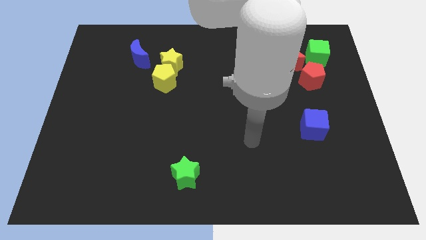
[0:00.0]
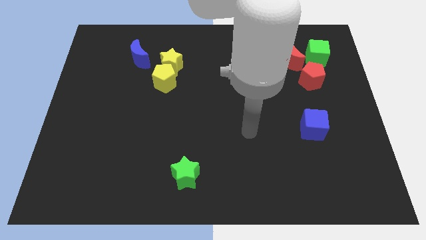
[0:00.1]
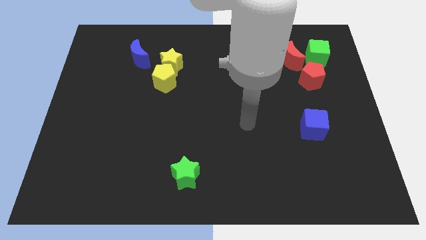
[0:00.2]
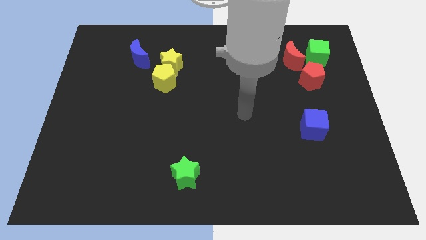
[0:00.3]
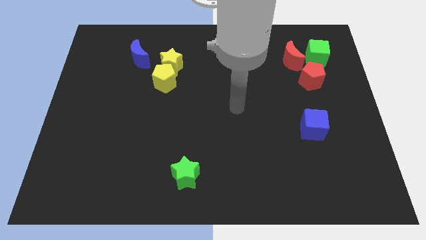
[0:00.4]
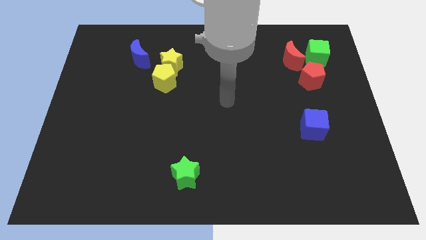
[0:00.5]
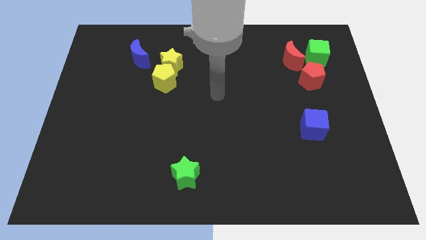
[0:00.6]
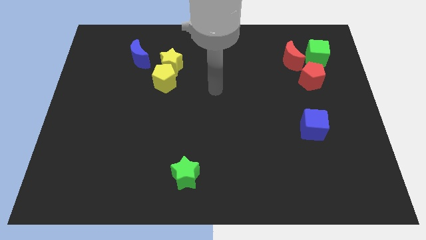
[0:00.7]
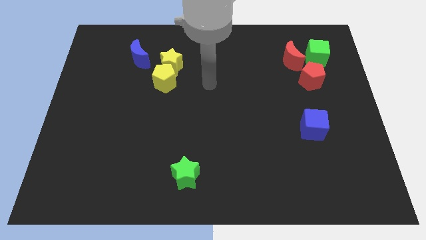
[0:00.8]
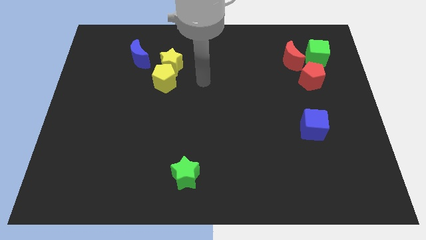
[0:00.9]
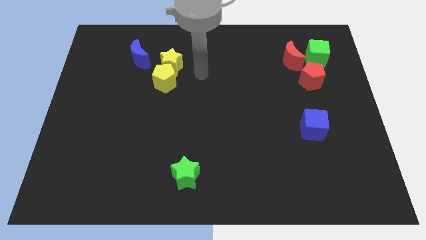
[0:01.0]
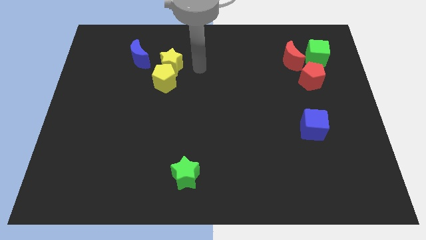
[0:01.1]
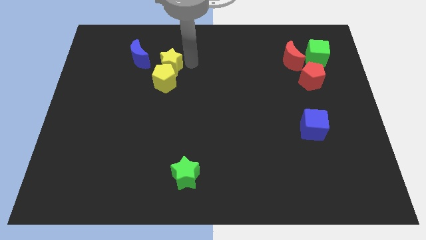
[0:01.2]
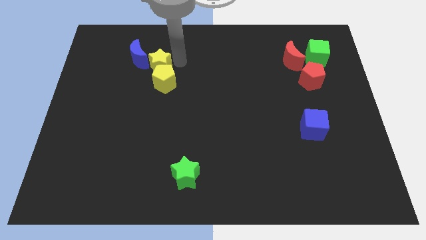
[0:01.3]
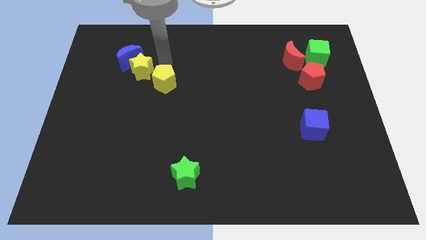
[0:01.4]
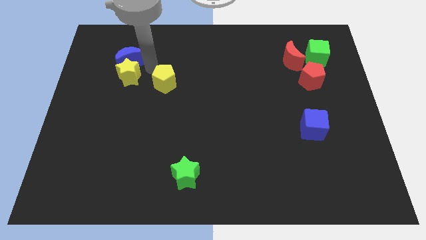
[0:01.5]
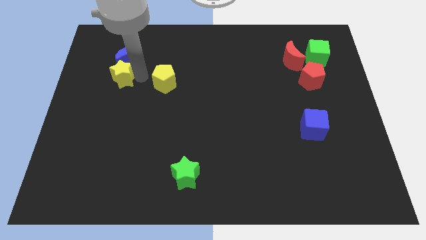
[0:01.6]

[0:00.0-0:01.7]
pull the yellow pentagon apart from the yellow star

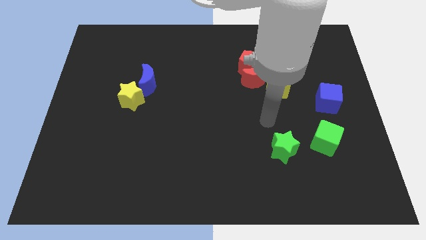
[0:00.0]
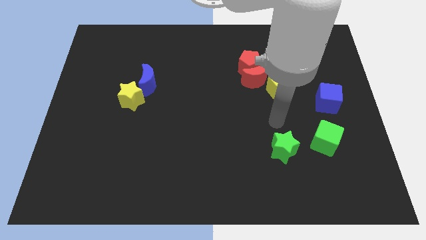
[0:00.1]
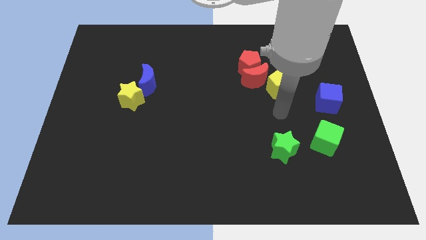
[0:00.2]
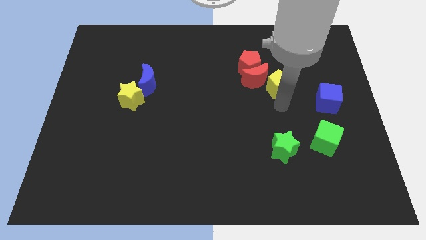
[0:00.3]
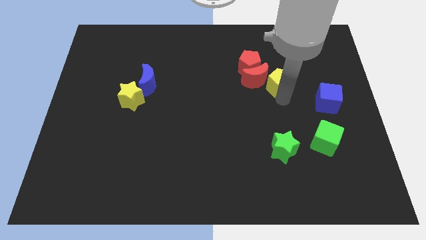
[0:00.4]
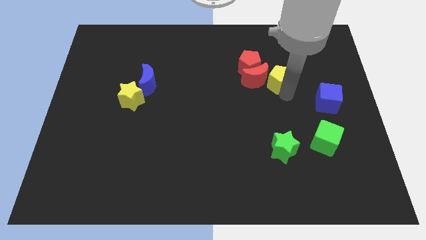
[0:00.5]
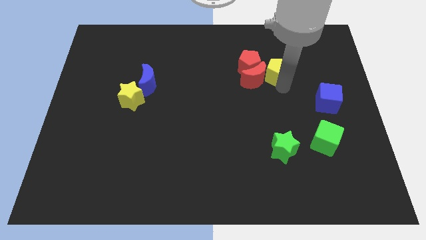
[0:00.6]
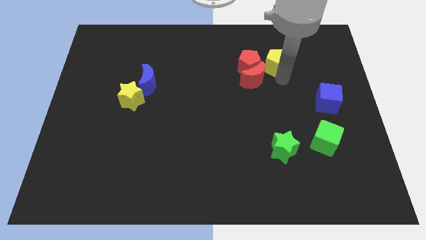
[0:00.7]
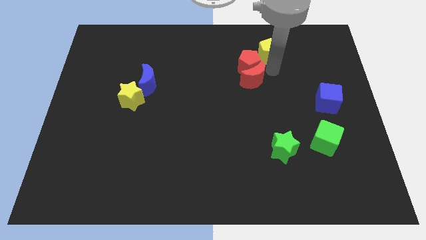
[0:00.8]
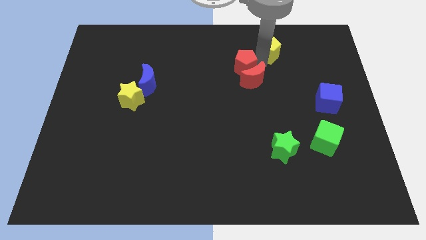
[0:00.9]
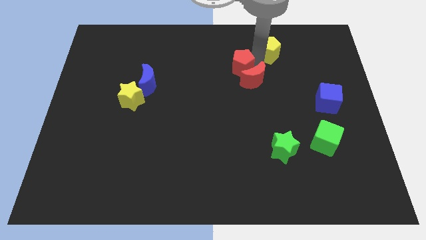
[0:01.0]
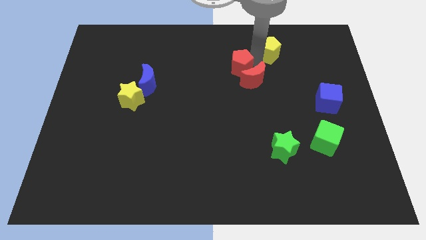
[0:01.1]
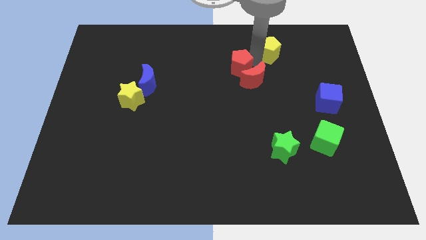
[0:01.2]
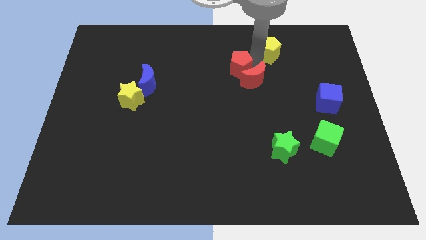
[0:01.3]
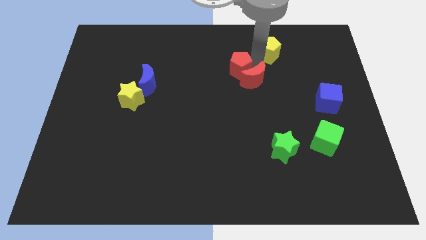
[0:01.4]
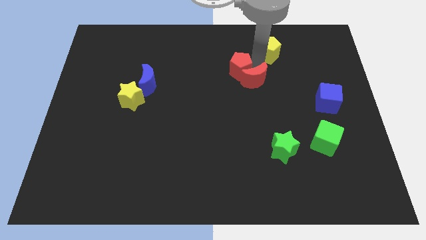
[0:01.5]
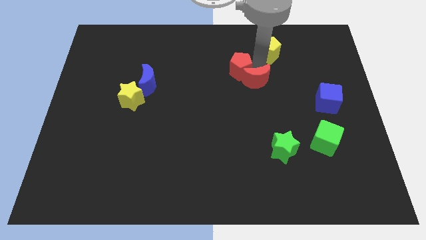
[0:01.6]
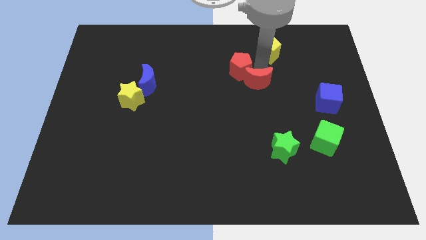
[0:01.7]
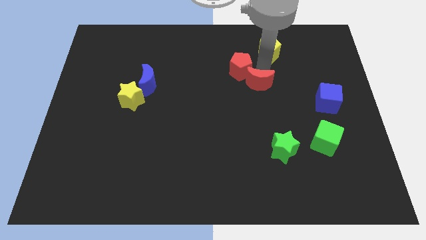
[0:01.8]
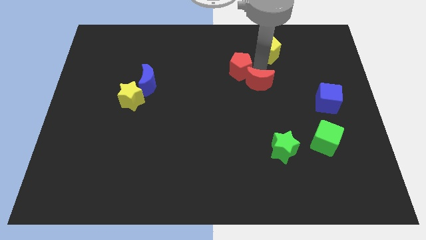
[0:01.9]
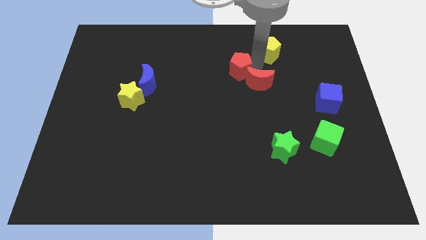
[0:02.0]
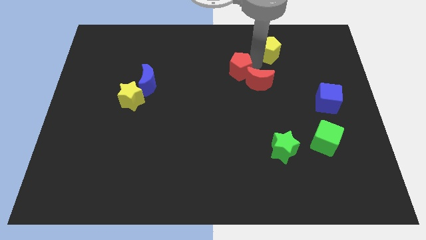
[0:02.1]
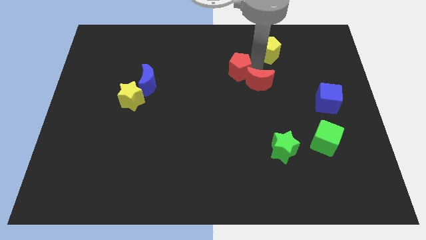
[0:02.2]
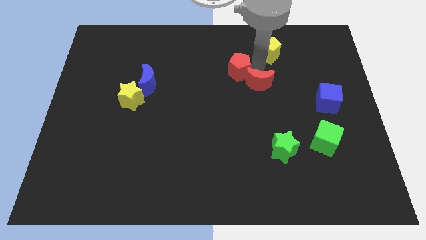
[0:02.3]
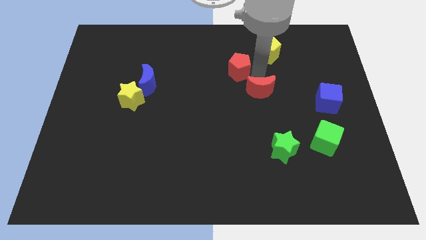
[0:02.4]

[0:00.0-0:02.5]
separate the red moon from the red pentagon and yellow pentagon

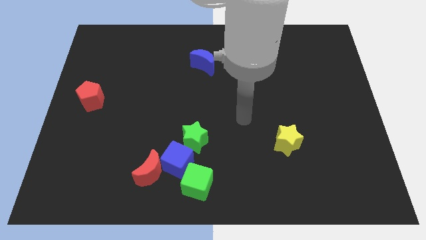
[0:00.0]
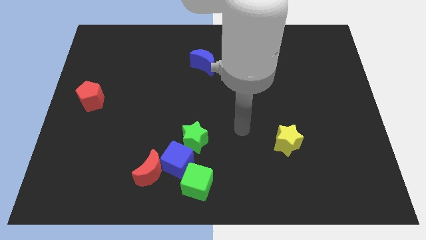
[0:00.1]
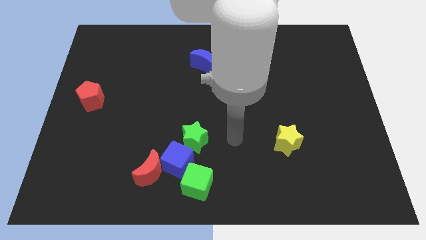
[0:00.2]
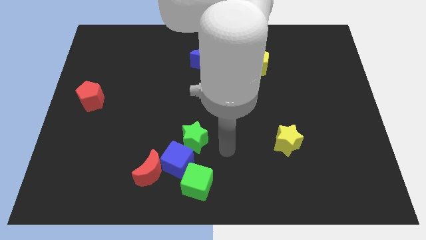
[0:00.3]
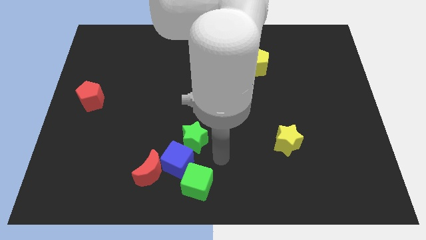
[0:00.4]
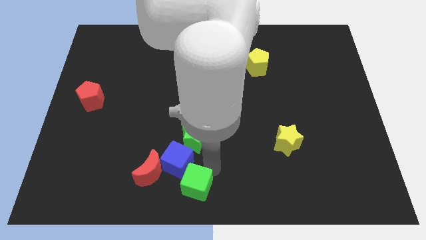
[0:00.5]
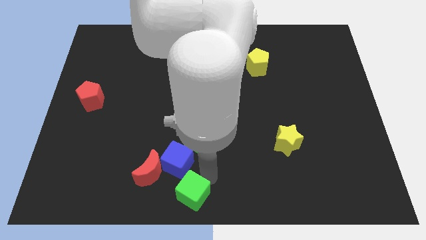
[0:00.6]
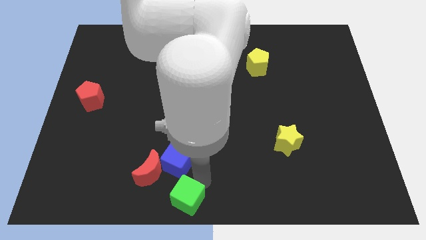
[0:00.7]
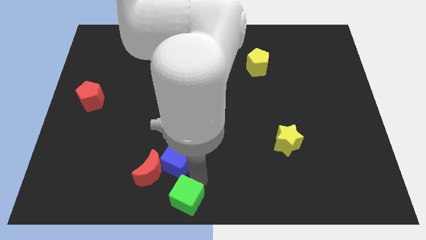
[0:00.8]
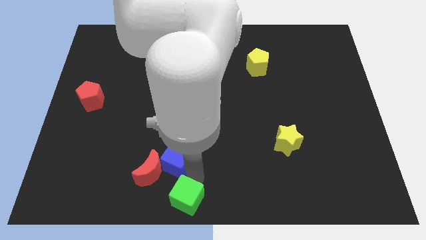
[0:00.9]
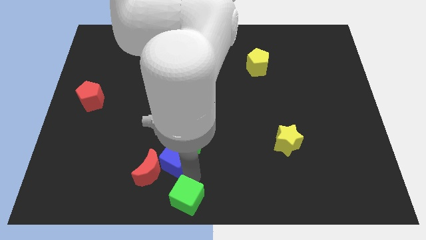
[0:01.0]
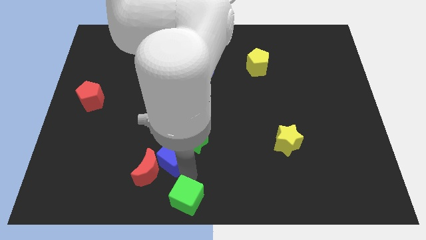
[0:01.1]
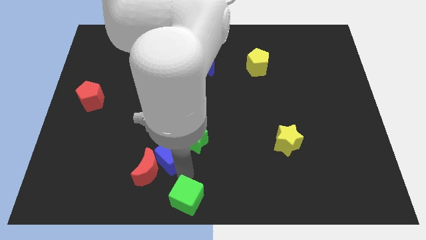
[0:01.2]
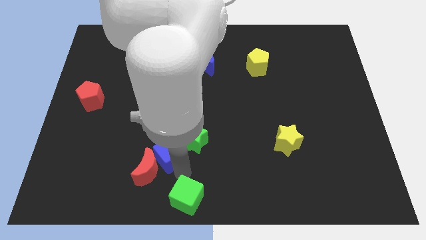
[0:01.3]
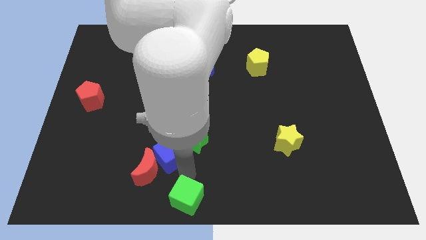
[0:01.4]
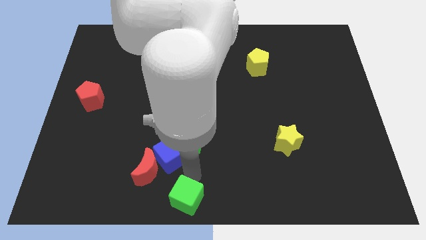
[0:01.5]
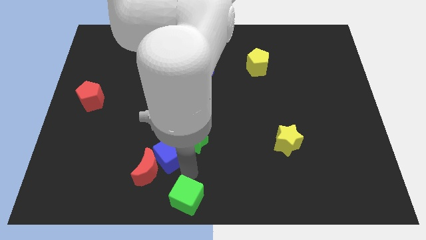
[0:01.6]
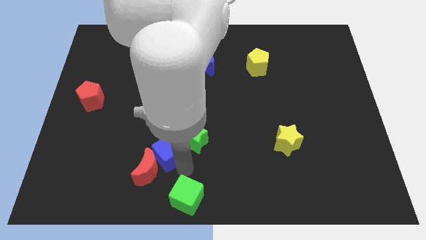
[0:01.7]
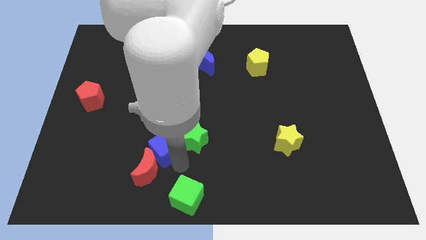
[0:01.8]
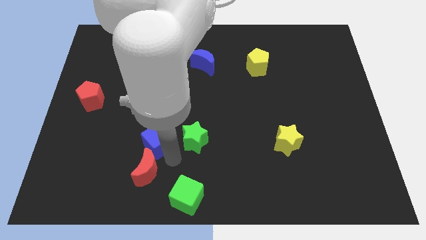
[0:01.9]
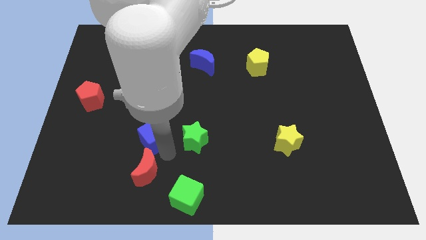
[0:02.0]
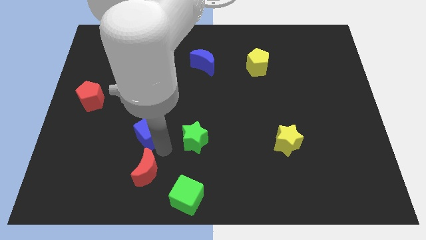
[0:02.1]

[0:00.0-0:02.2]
pull the blue cube apart from the red moon, green star, and green cube

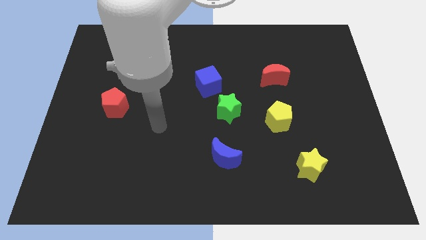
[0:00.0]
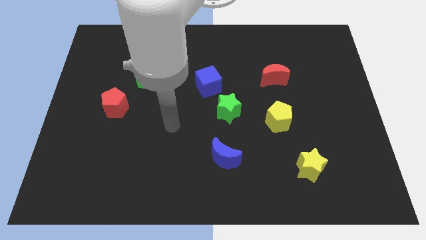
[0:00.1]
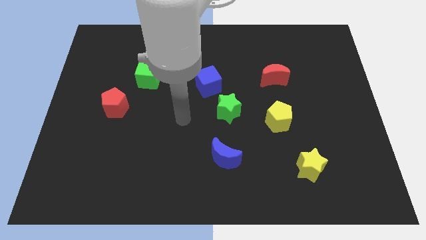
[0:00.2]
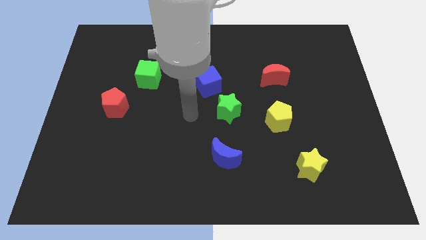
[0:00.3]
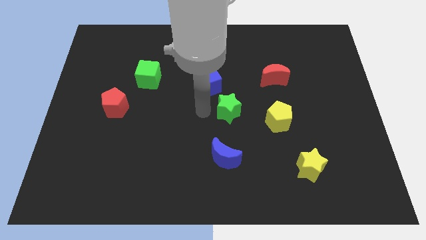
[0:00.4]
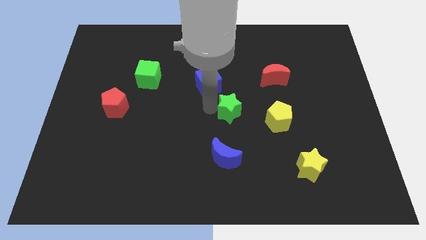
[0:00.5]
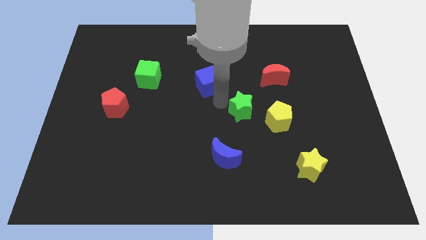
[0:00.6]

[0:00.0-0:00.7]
pull the blue cube apart from the green star

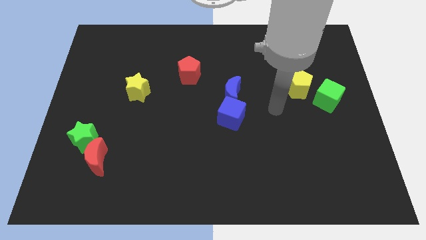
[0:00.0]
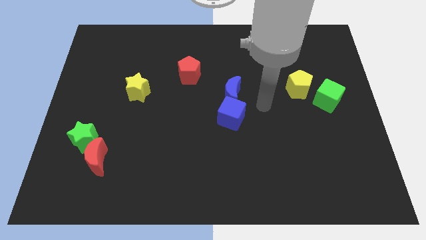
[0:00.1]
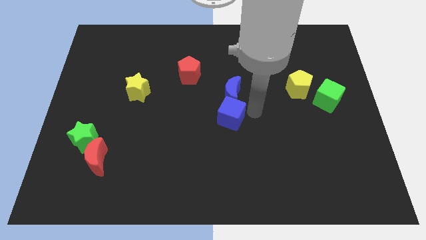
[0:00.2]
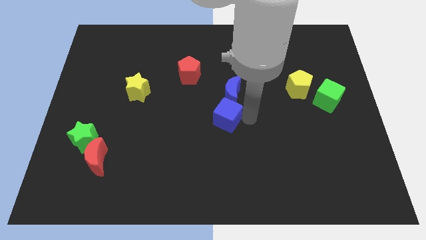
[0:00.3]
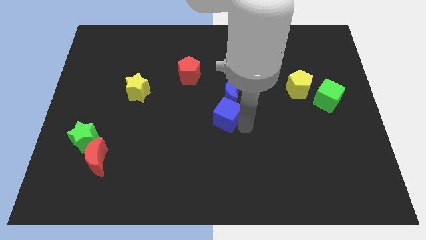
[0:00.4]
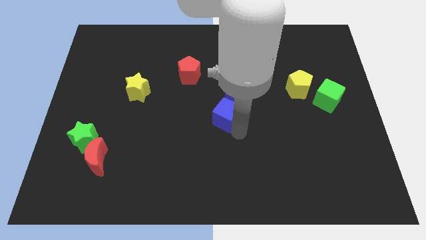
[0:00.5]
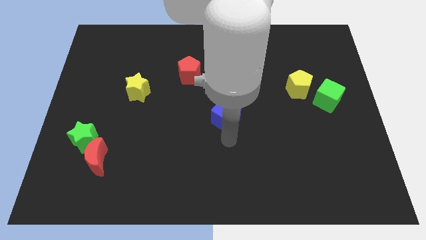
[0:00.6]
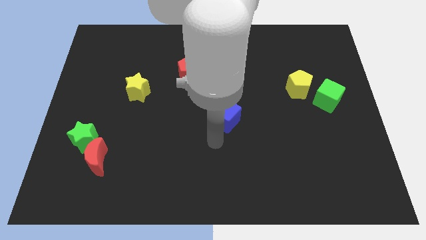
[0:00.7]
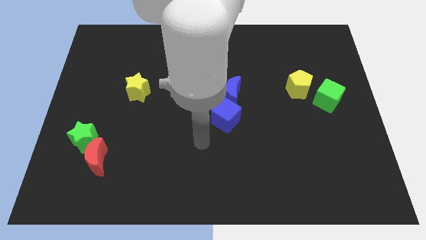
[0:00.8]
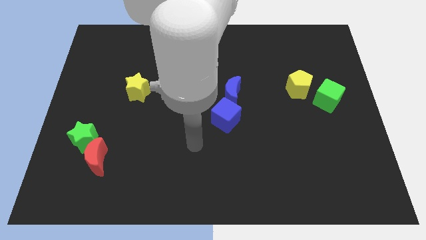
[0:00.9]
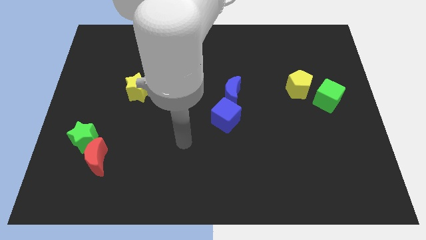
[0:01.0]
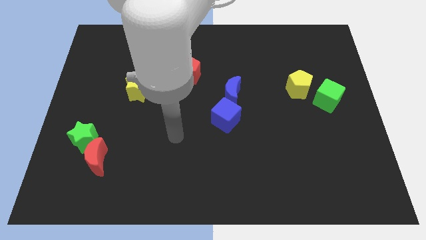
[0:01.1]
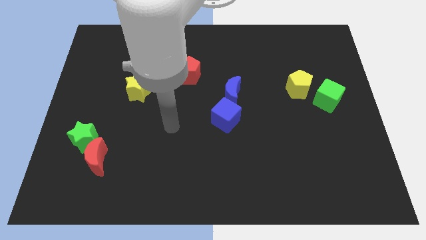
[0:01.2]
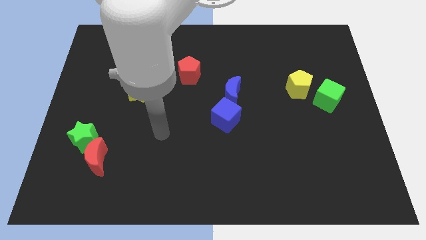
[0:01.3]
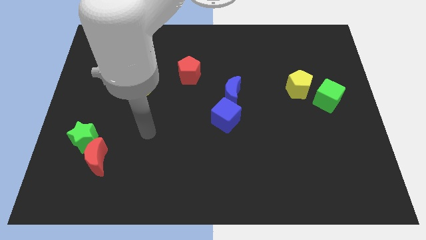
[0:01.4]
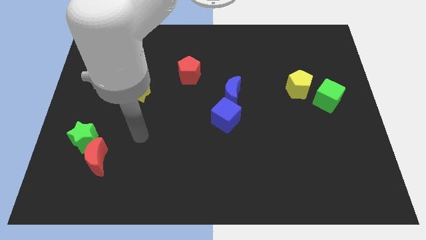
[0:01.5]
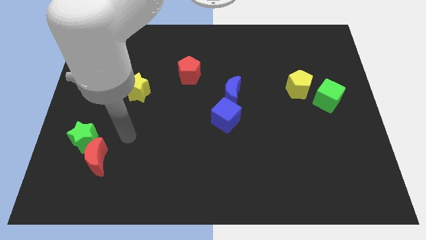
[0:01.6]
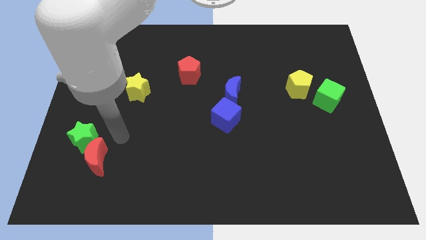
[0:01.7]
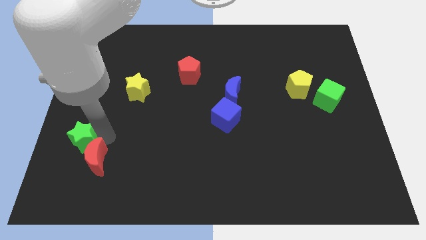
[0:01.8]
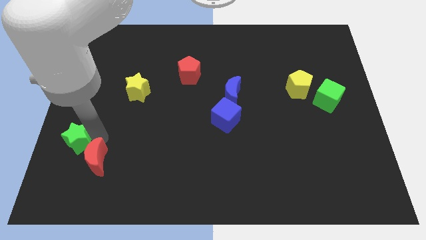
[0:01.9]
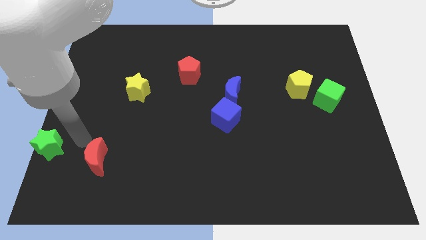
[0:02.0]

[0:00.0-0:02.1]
move the red moon away from the green star

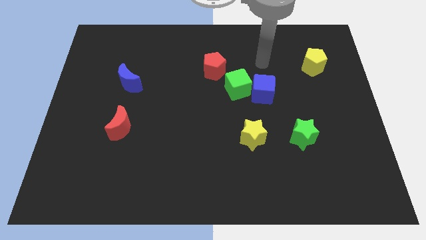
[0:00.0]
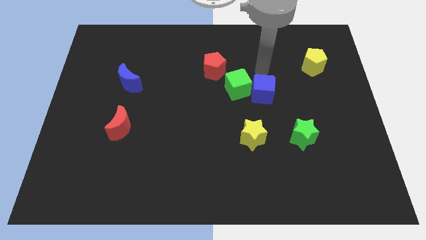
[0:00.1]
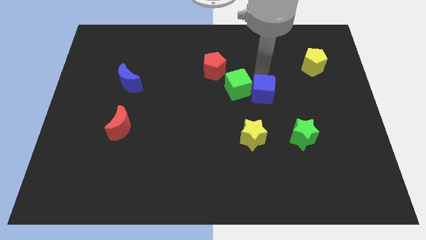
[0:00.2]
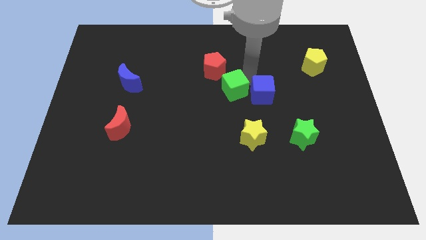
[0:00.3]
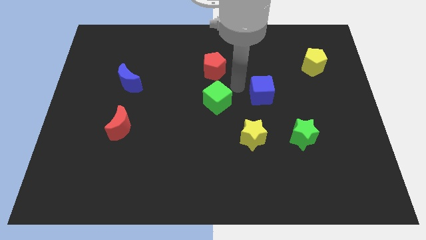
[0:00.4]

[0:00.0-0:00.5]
separate the blue cube from the green cube
